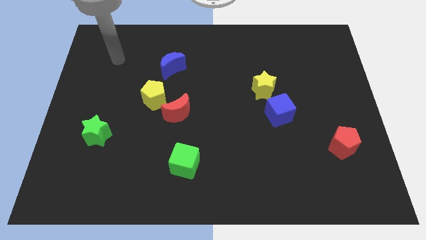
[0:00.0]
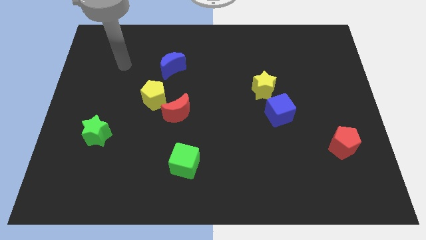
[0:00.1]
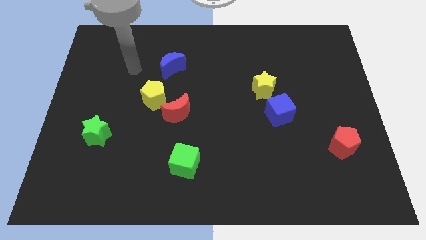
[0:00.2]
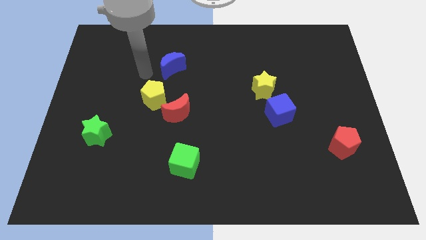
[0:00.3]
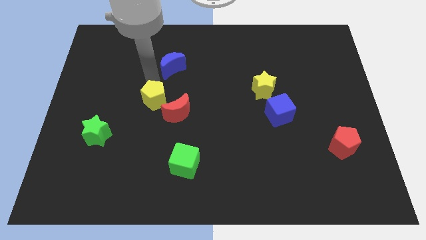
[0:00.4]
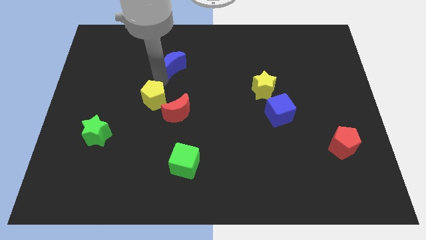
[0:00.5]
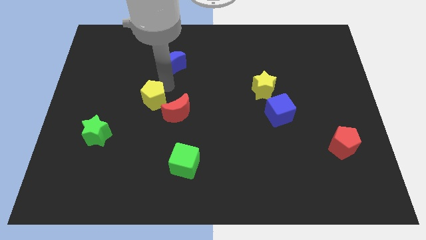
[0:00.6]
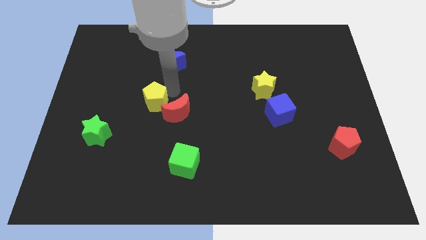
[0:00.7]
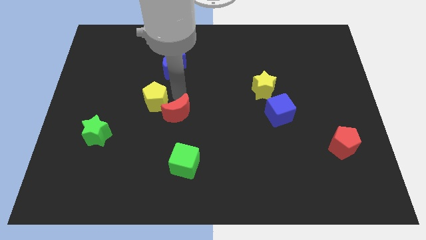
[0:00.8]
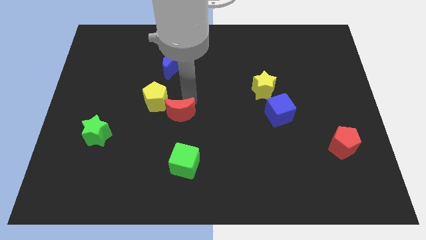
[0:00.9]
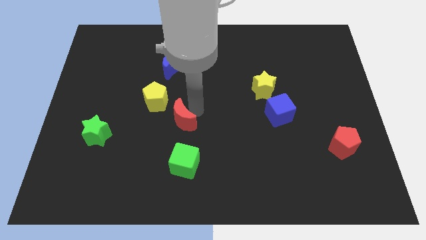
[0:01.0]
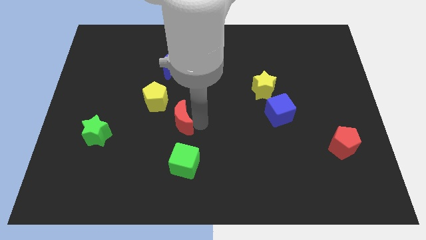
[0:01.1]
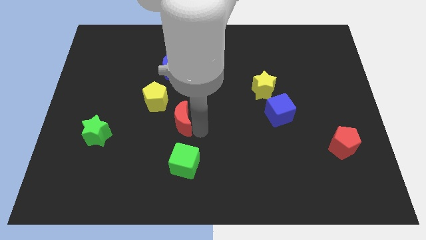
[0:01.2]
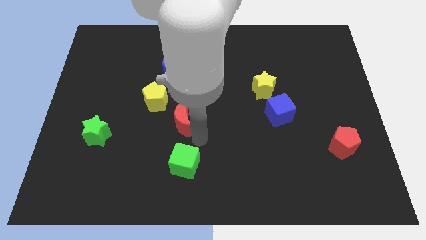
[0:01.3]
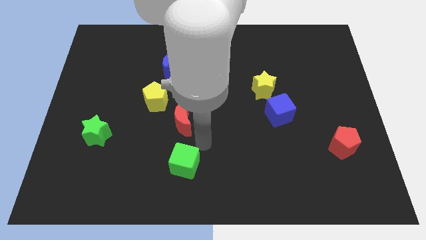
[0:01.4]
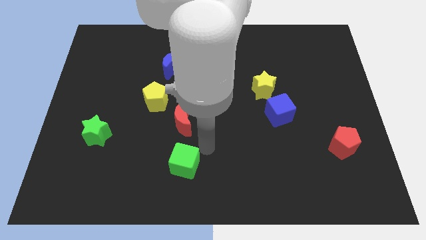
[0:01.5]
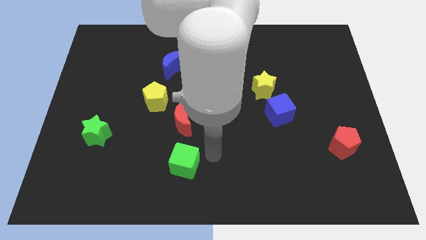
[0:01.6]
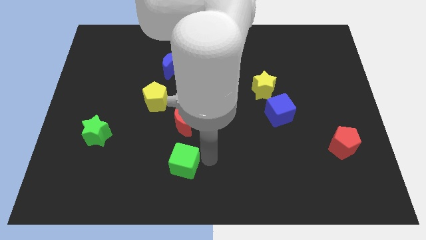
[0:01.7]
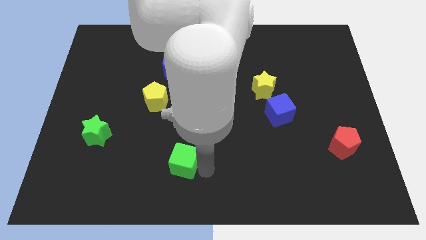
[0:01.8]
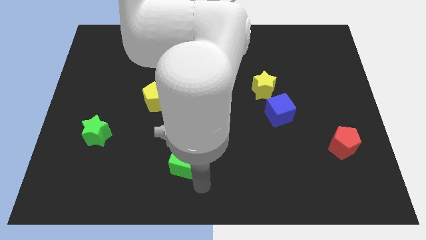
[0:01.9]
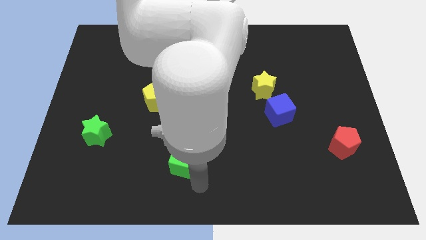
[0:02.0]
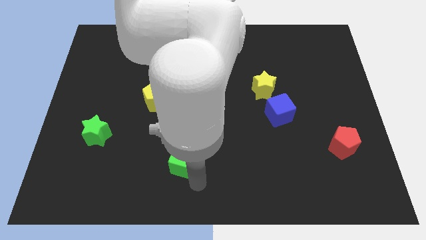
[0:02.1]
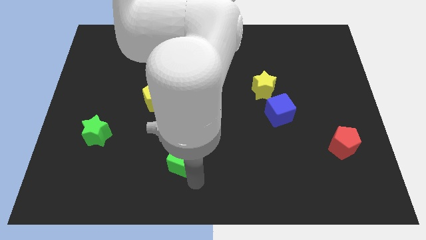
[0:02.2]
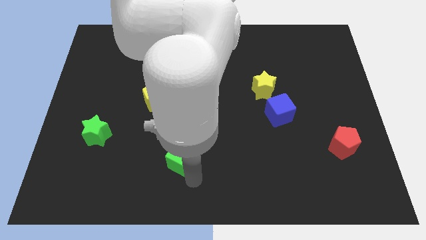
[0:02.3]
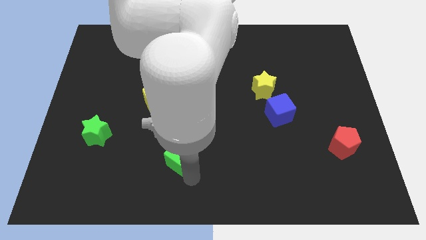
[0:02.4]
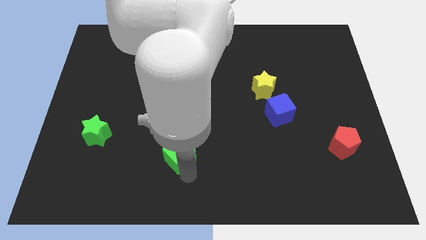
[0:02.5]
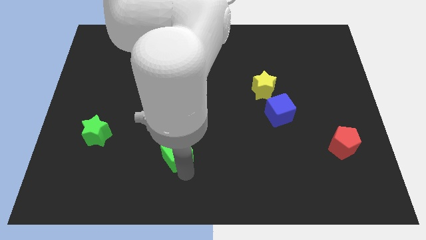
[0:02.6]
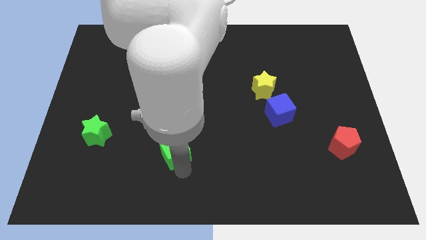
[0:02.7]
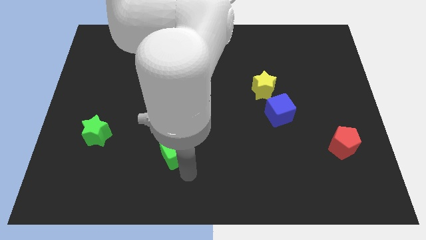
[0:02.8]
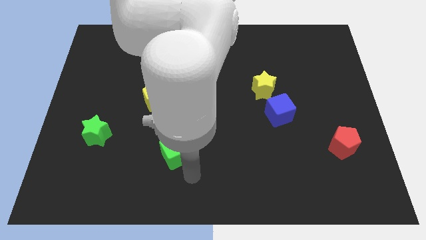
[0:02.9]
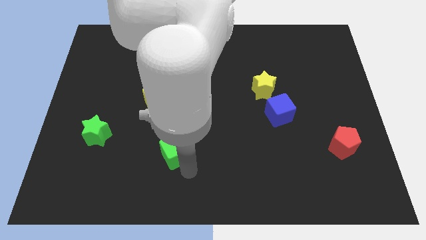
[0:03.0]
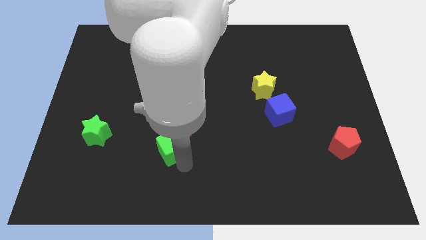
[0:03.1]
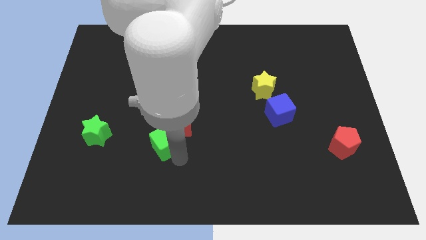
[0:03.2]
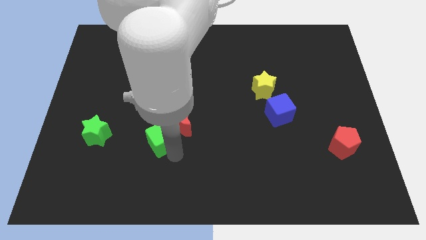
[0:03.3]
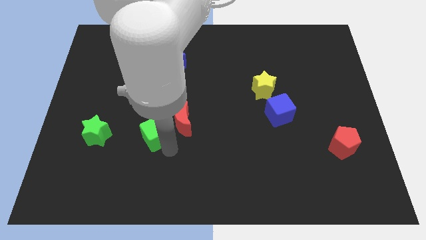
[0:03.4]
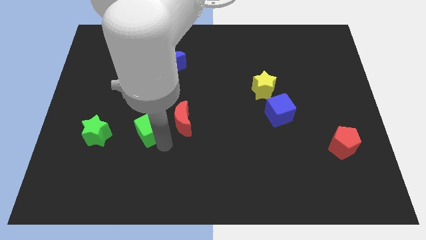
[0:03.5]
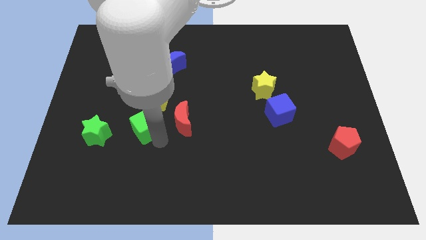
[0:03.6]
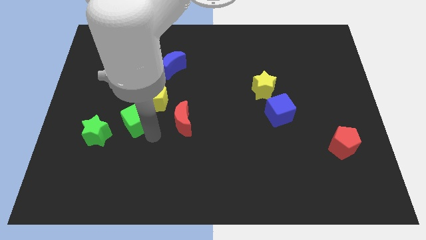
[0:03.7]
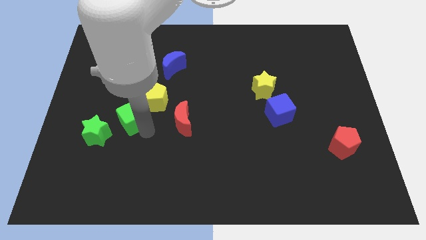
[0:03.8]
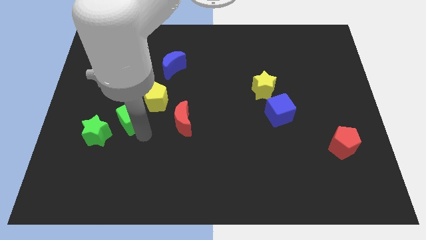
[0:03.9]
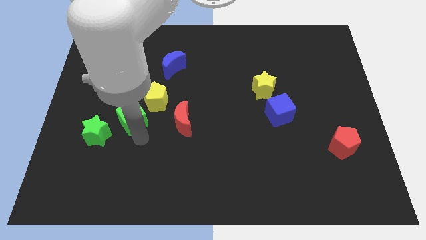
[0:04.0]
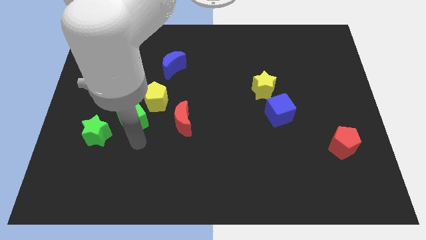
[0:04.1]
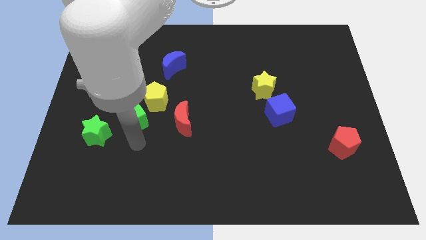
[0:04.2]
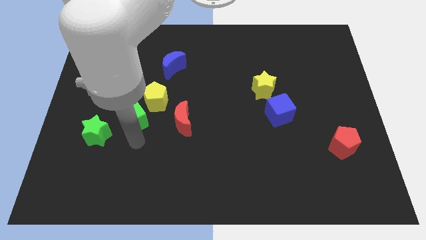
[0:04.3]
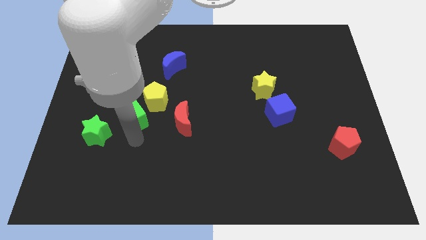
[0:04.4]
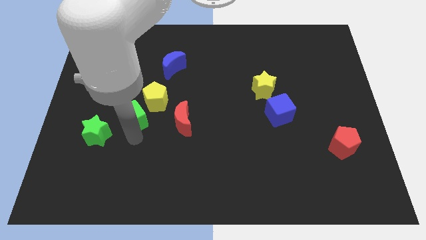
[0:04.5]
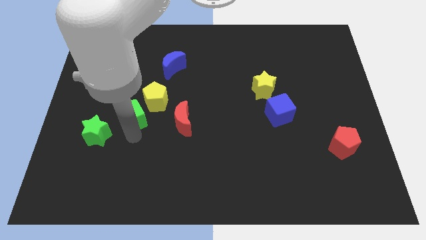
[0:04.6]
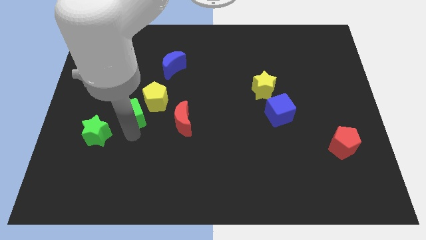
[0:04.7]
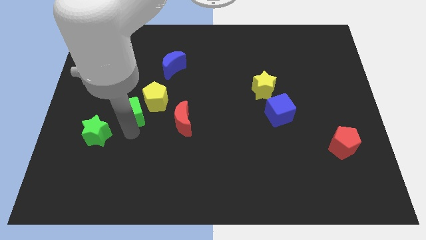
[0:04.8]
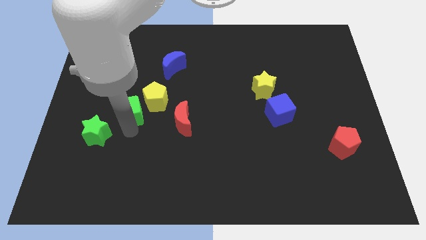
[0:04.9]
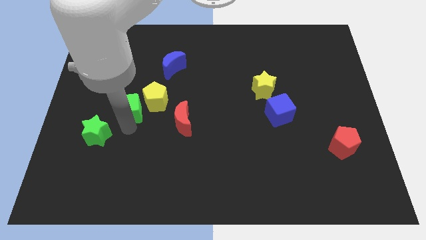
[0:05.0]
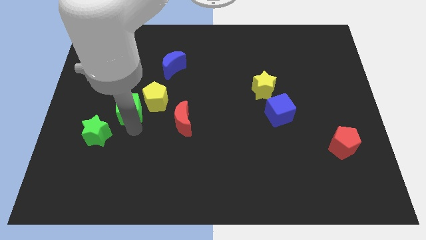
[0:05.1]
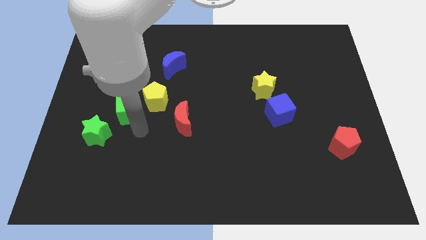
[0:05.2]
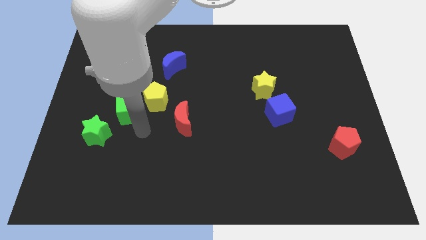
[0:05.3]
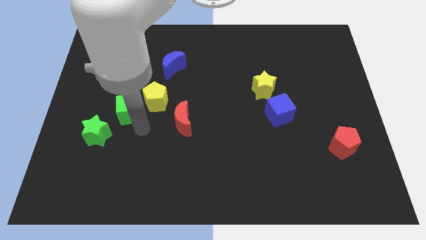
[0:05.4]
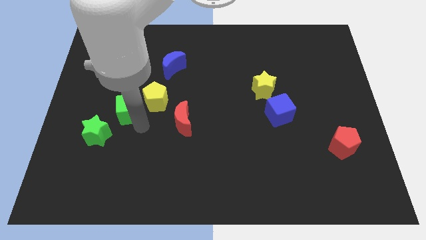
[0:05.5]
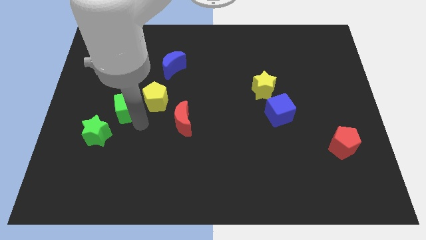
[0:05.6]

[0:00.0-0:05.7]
push the green cube diagonally up and left

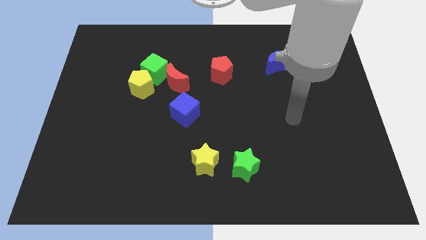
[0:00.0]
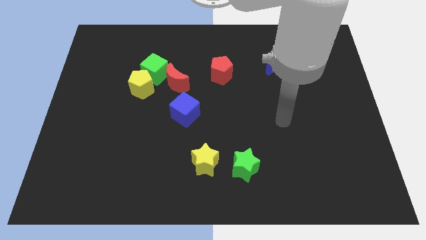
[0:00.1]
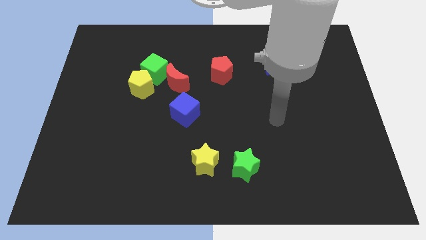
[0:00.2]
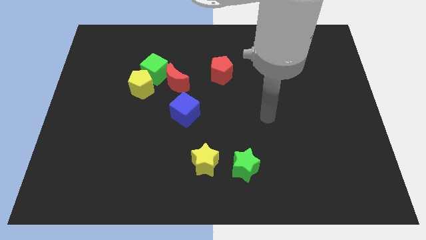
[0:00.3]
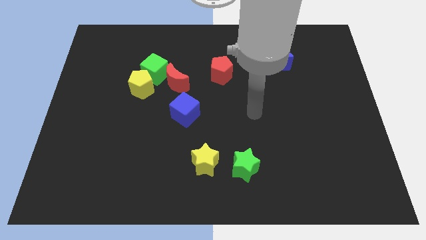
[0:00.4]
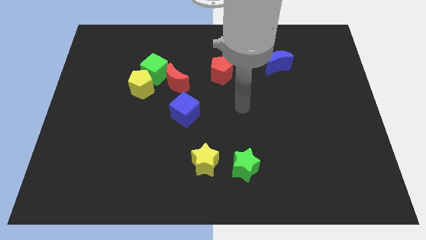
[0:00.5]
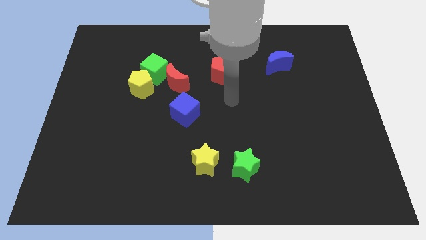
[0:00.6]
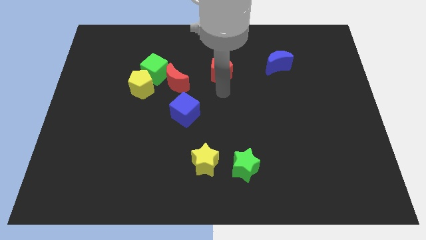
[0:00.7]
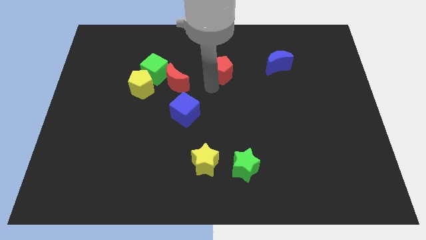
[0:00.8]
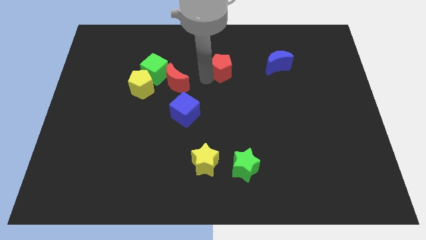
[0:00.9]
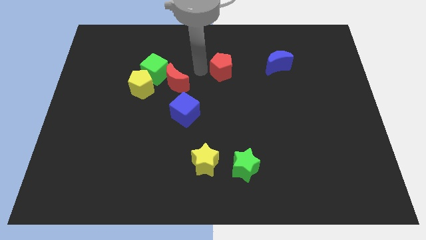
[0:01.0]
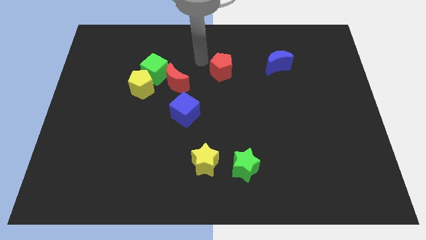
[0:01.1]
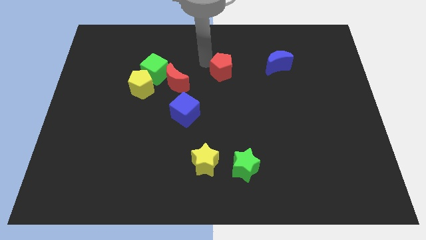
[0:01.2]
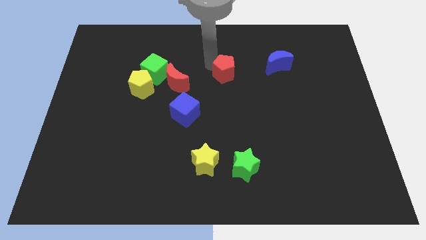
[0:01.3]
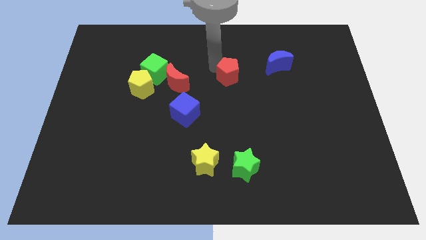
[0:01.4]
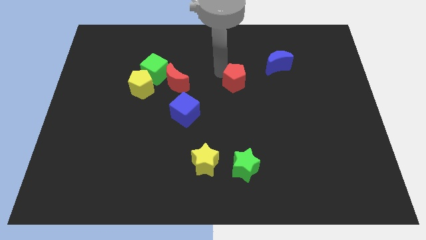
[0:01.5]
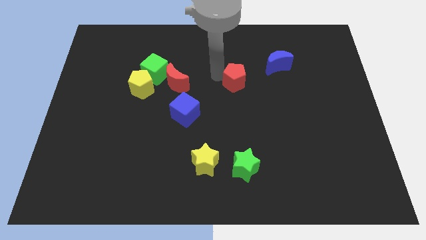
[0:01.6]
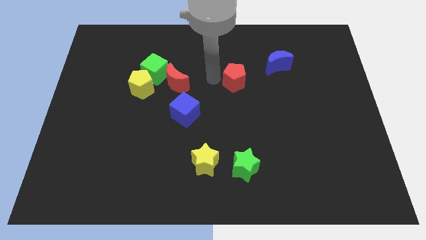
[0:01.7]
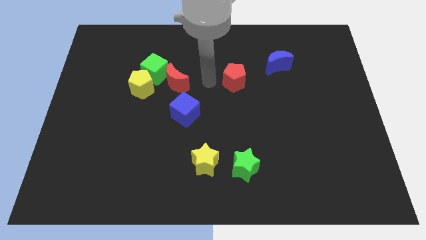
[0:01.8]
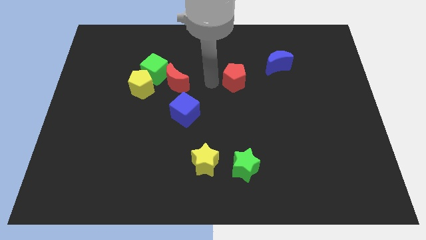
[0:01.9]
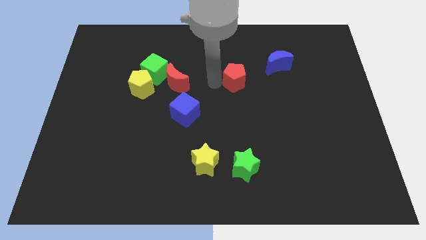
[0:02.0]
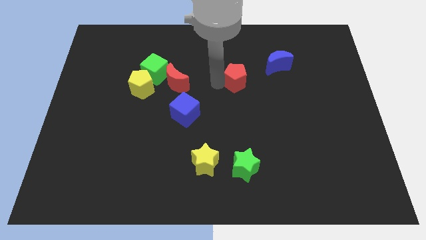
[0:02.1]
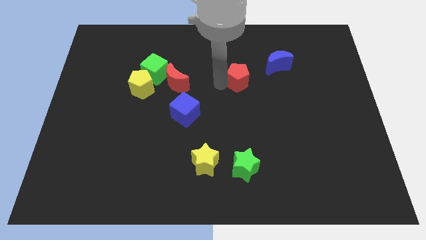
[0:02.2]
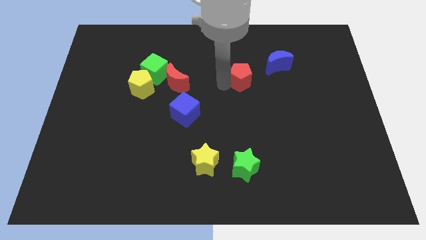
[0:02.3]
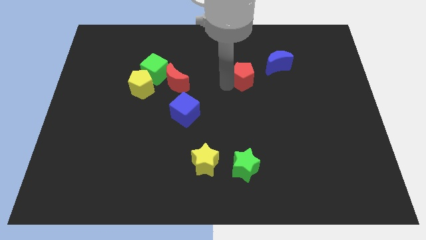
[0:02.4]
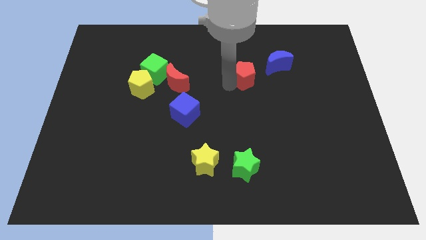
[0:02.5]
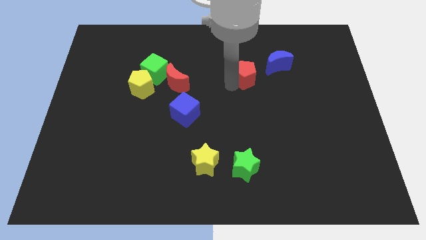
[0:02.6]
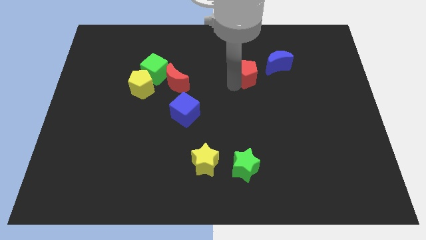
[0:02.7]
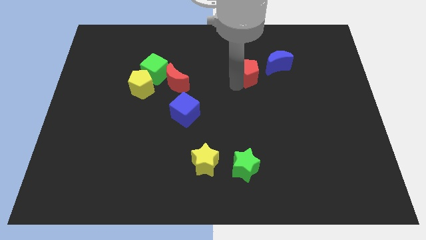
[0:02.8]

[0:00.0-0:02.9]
slightly move the red pentagon to the right
